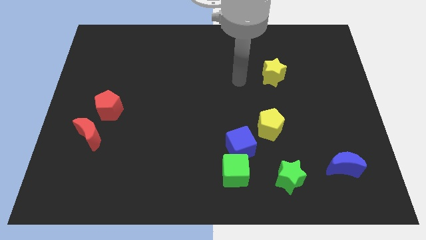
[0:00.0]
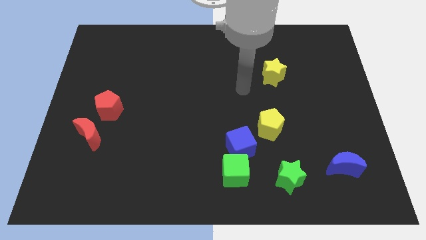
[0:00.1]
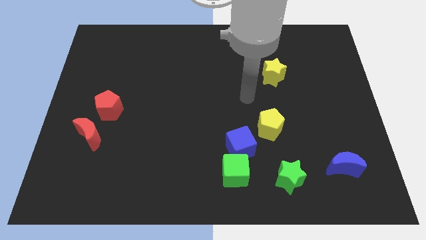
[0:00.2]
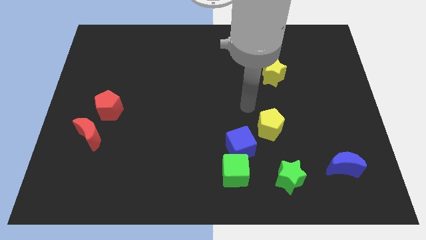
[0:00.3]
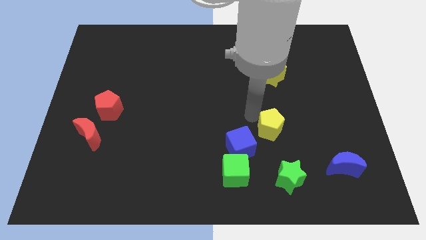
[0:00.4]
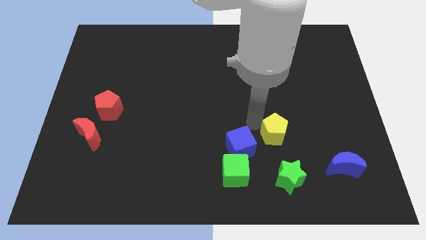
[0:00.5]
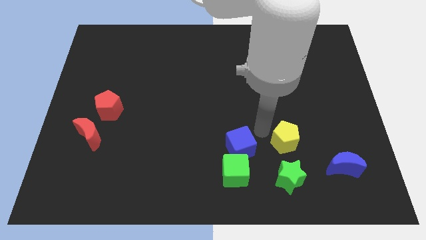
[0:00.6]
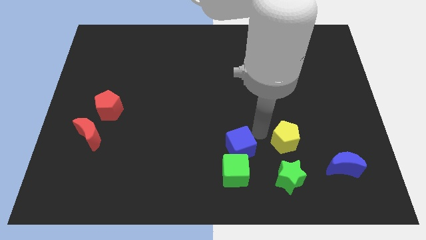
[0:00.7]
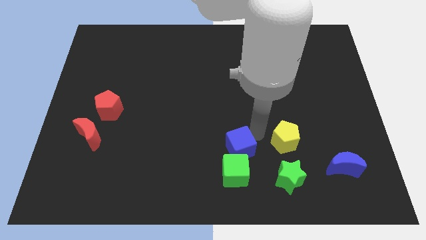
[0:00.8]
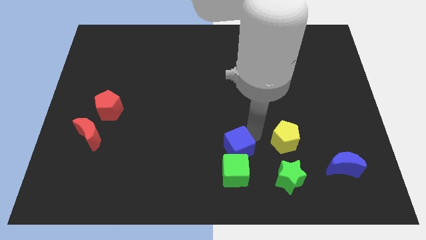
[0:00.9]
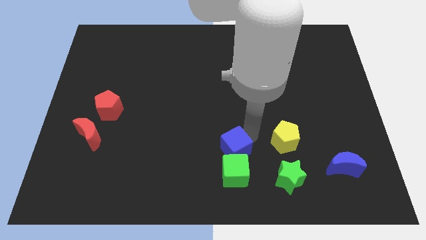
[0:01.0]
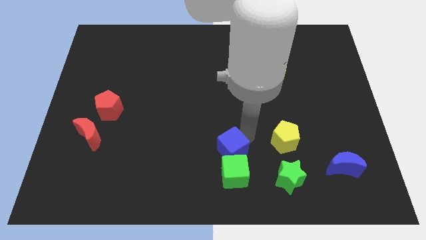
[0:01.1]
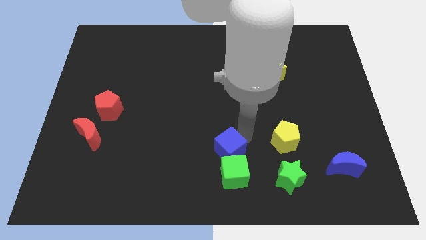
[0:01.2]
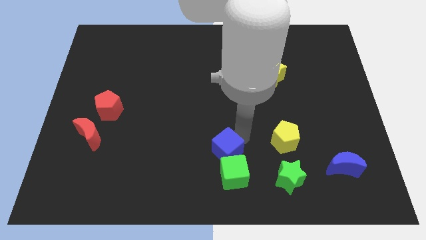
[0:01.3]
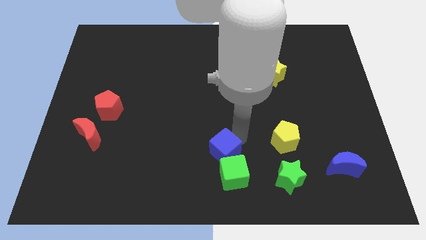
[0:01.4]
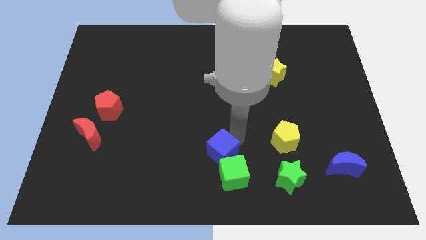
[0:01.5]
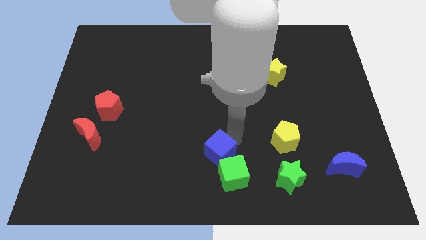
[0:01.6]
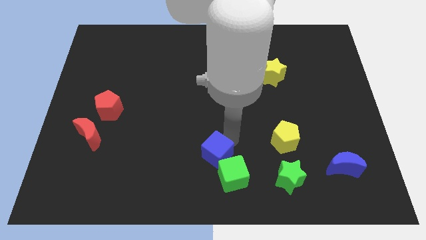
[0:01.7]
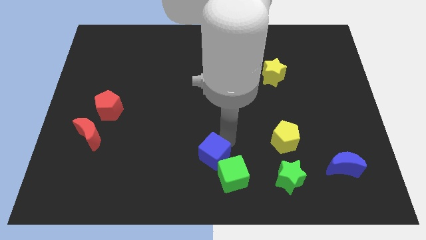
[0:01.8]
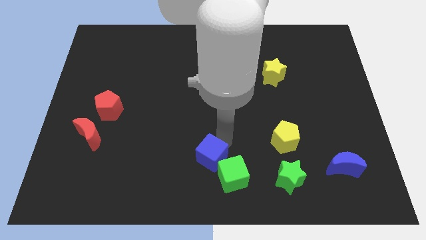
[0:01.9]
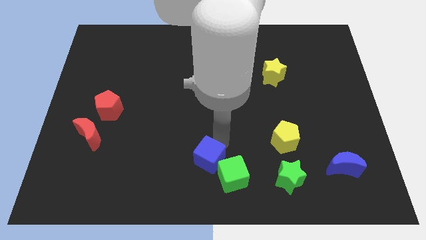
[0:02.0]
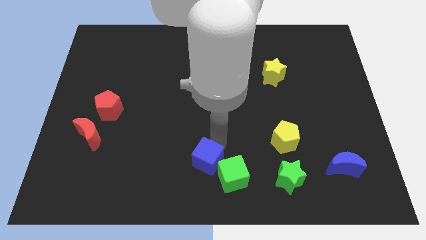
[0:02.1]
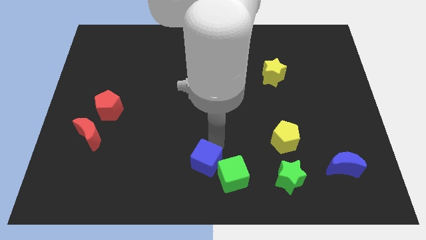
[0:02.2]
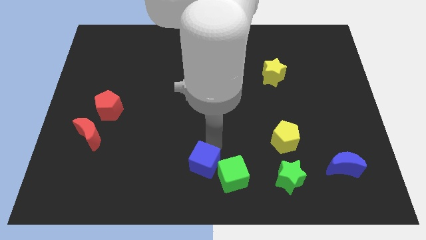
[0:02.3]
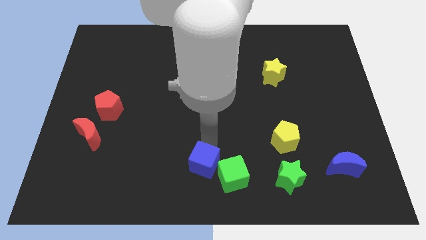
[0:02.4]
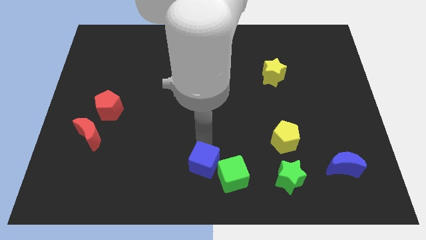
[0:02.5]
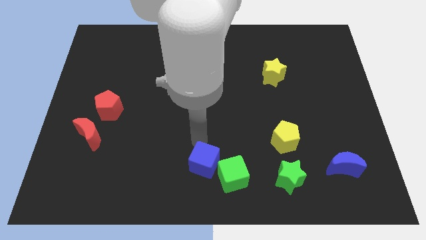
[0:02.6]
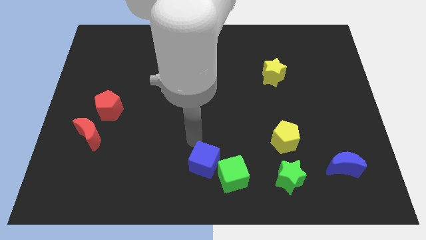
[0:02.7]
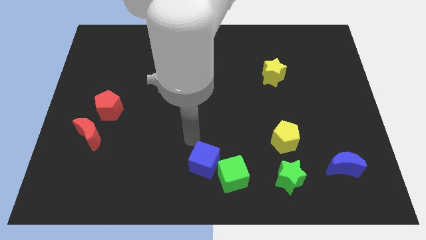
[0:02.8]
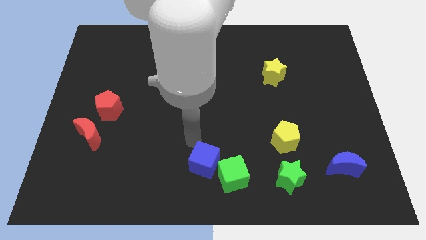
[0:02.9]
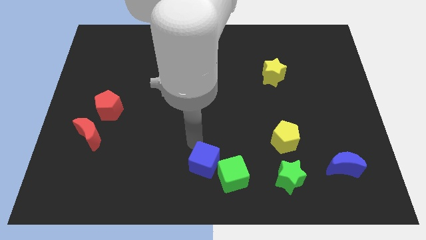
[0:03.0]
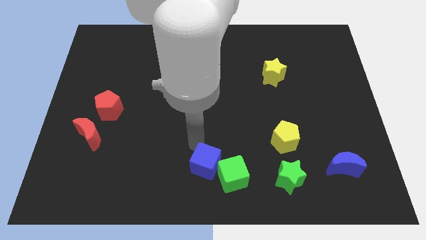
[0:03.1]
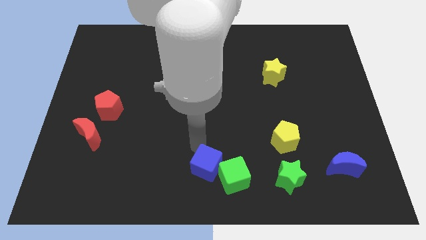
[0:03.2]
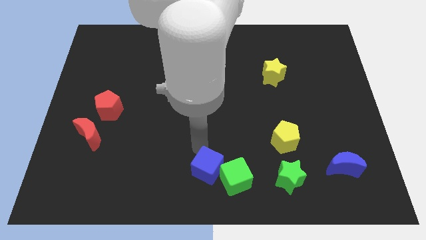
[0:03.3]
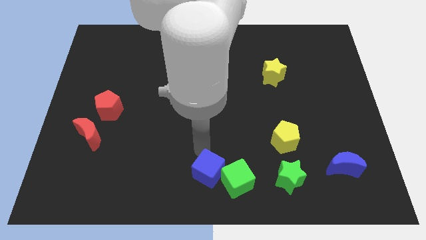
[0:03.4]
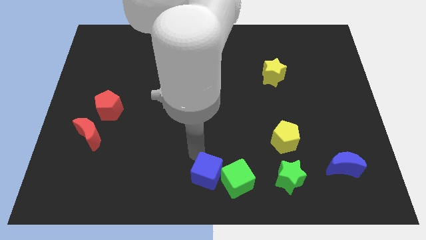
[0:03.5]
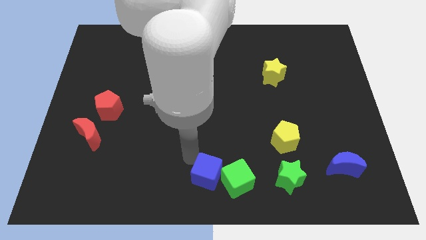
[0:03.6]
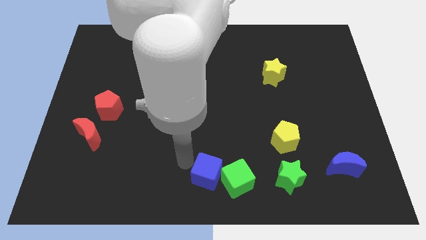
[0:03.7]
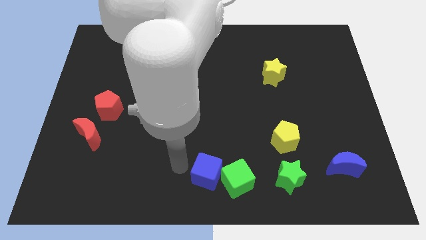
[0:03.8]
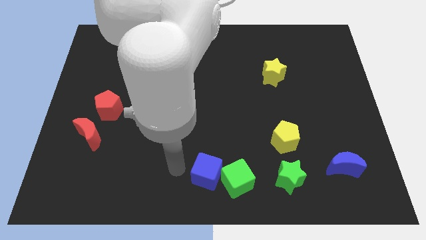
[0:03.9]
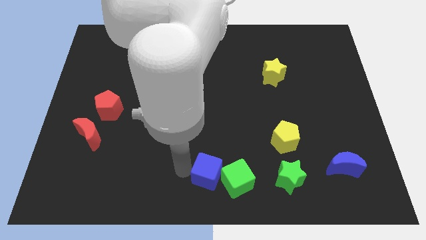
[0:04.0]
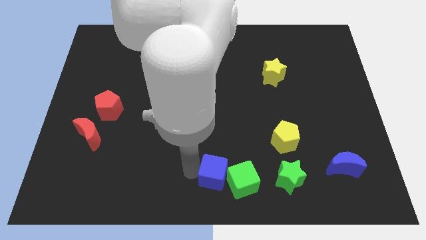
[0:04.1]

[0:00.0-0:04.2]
put the blue cube to the left of the green star

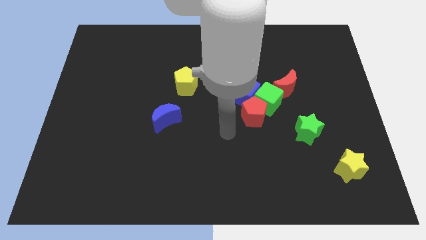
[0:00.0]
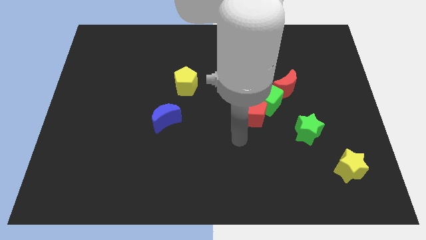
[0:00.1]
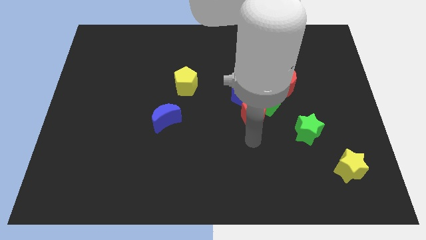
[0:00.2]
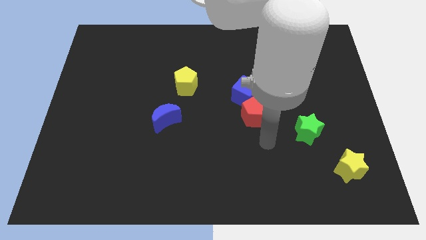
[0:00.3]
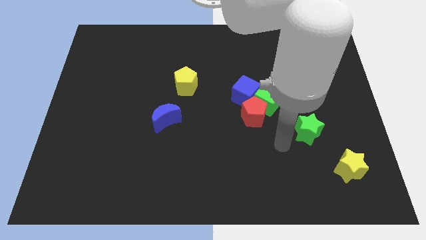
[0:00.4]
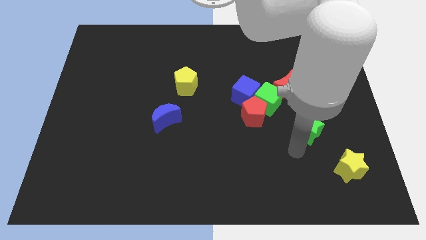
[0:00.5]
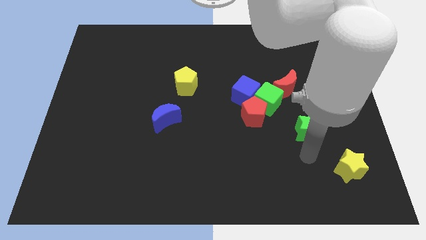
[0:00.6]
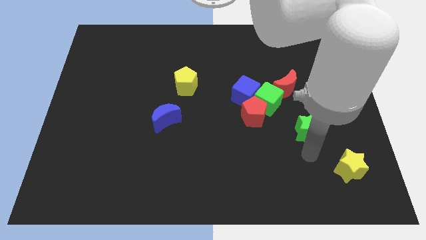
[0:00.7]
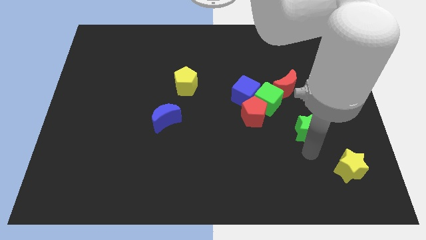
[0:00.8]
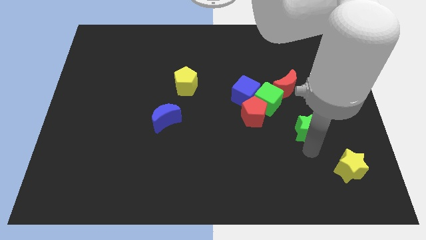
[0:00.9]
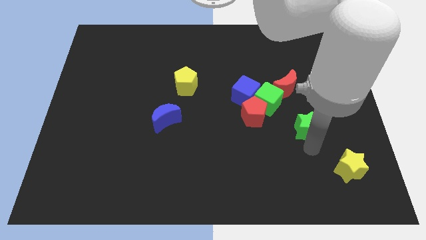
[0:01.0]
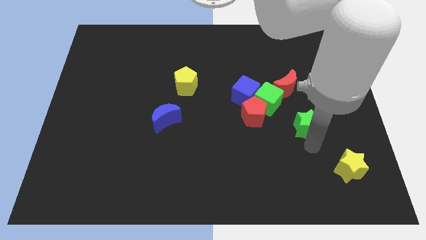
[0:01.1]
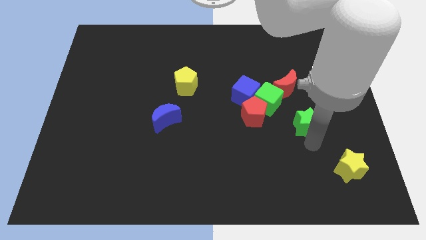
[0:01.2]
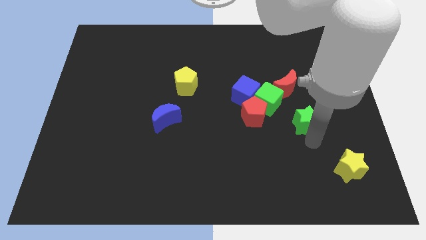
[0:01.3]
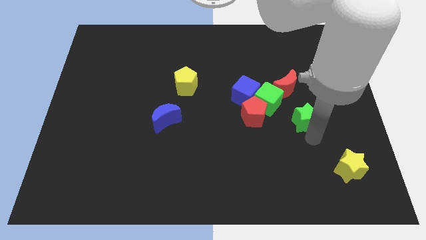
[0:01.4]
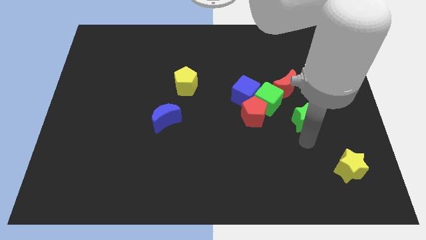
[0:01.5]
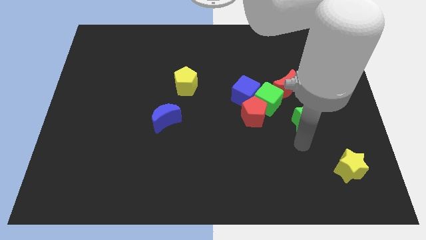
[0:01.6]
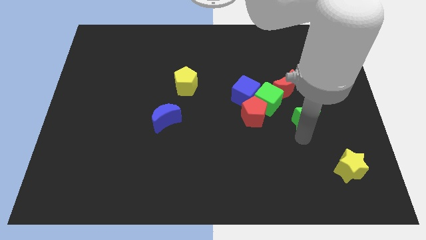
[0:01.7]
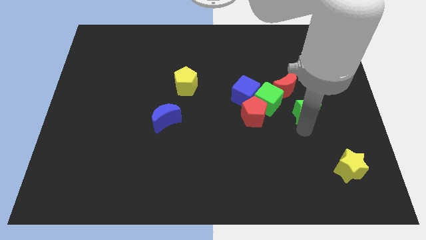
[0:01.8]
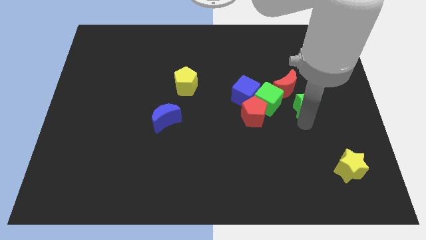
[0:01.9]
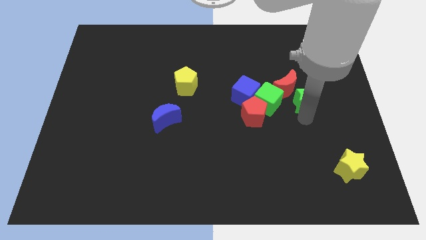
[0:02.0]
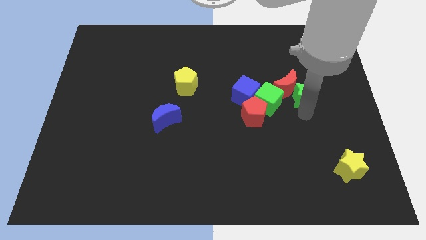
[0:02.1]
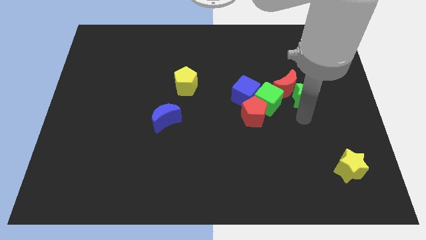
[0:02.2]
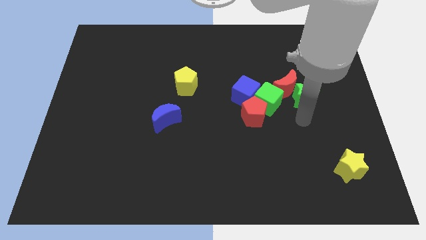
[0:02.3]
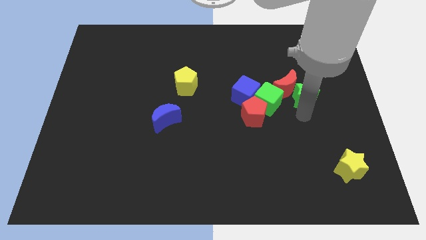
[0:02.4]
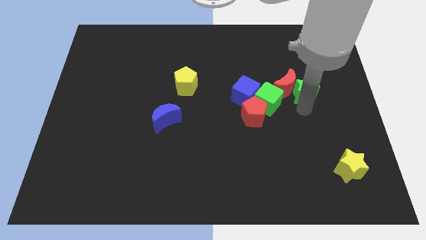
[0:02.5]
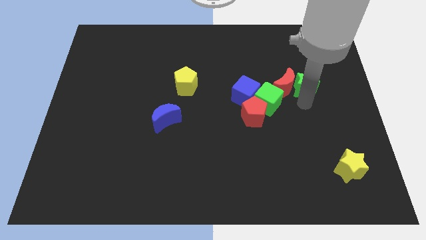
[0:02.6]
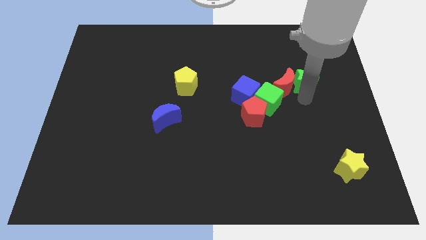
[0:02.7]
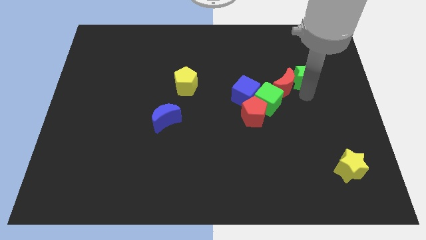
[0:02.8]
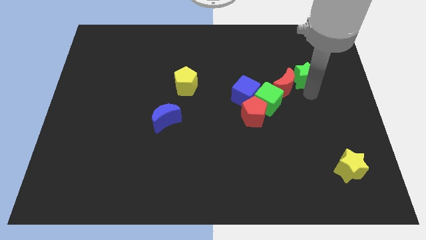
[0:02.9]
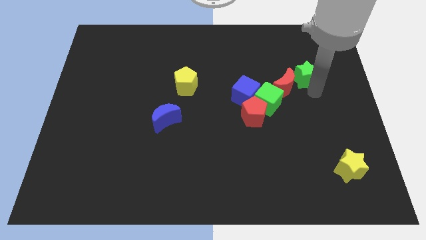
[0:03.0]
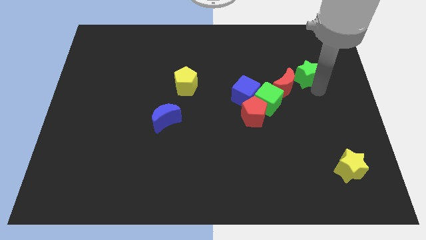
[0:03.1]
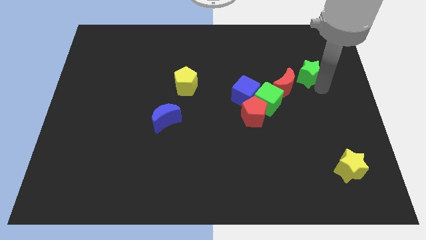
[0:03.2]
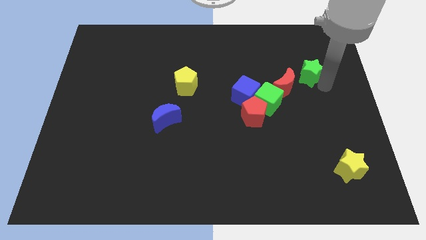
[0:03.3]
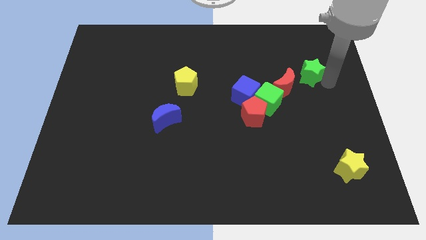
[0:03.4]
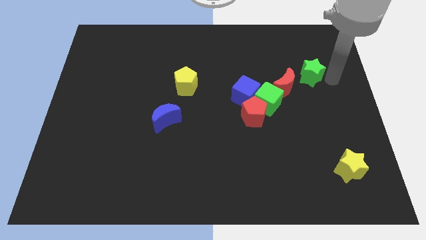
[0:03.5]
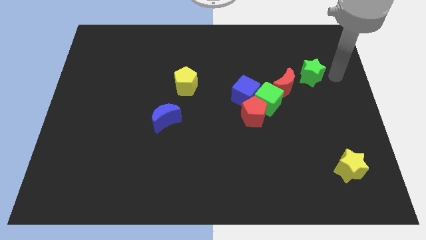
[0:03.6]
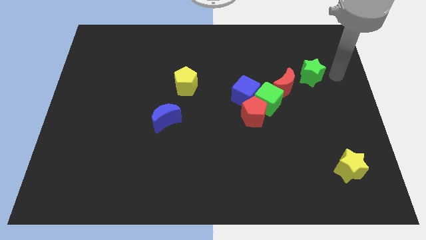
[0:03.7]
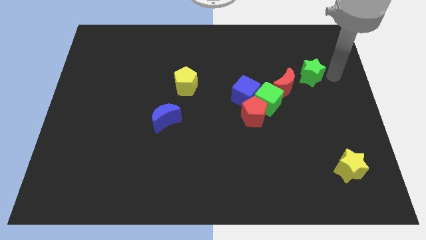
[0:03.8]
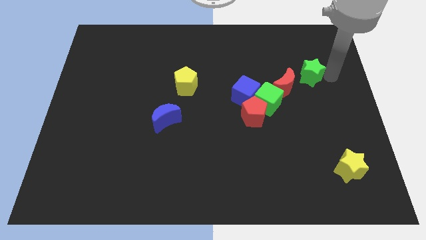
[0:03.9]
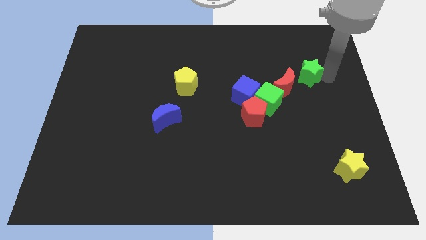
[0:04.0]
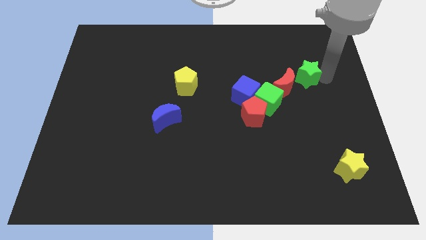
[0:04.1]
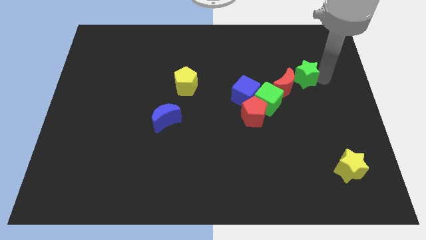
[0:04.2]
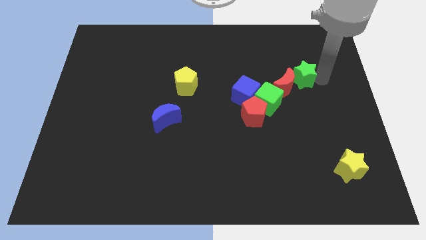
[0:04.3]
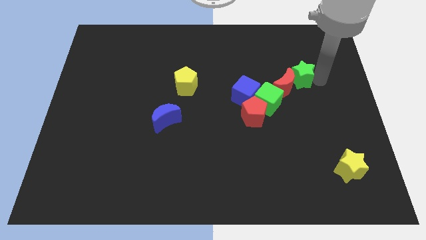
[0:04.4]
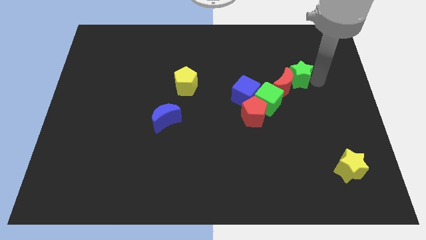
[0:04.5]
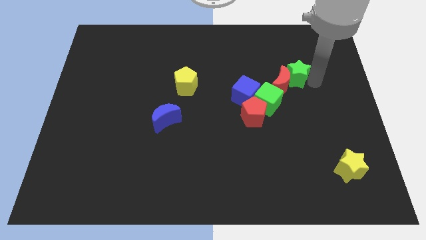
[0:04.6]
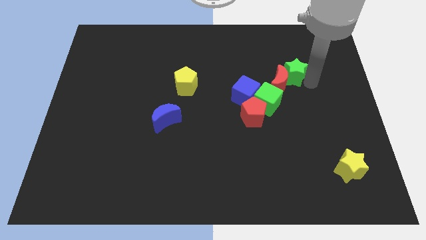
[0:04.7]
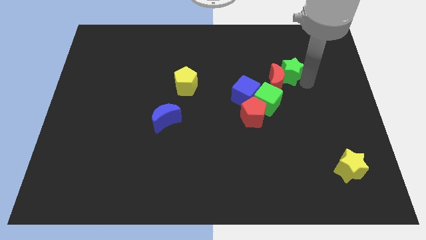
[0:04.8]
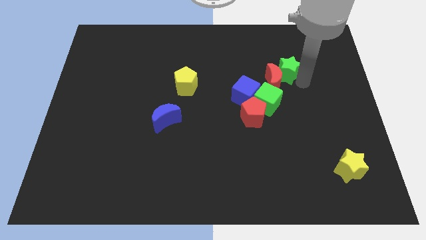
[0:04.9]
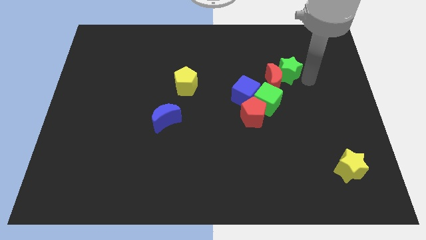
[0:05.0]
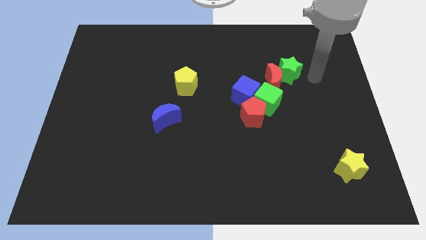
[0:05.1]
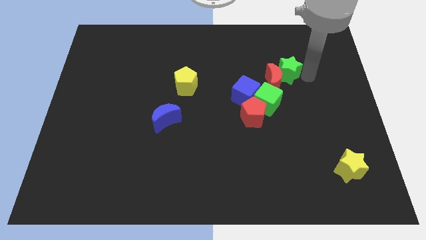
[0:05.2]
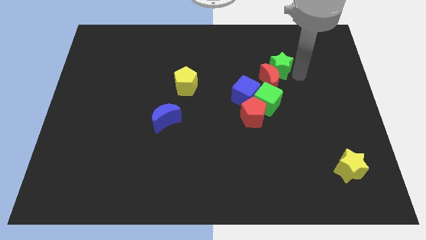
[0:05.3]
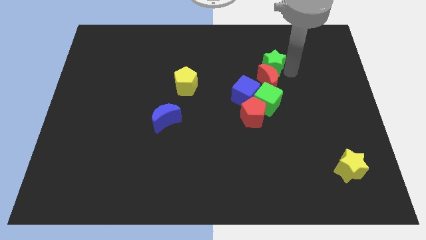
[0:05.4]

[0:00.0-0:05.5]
put the green star to the top left of the red moon
